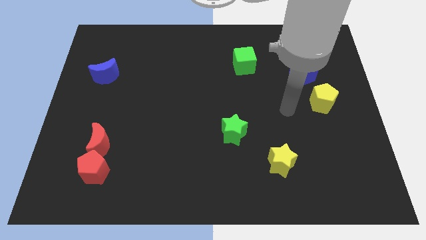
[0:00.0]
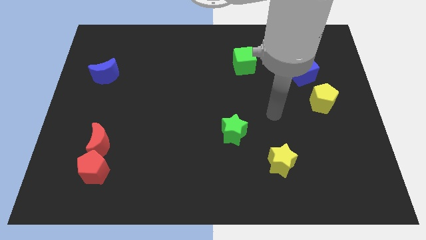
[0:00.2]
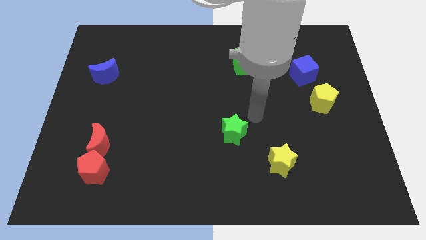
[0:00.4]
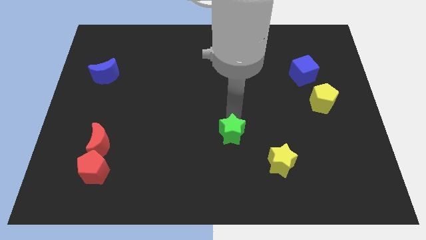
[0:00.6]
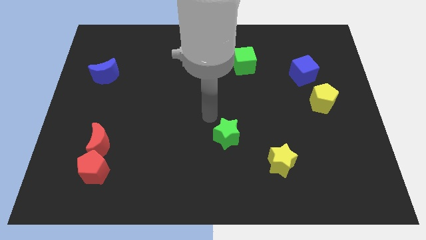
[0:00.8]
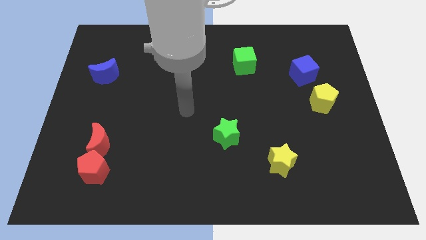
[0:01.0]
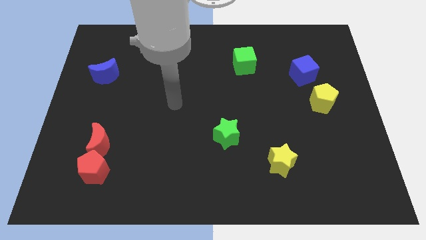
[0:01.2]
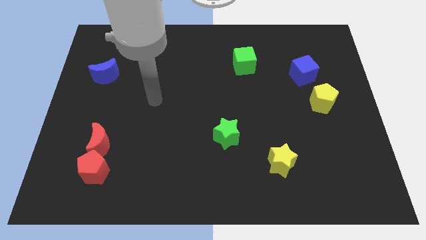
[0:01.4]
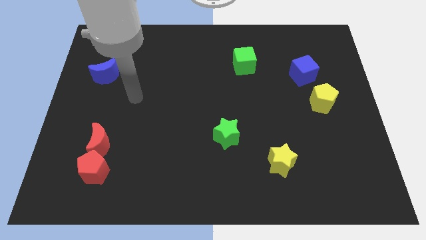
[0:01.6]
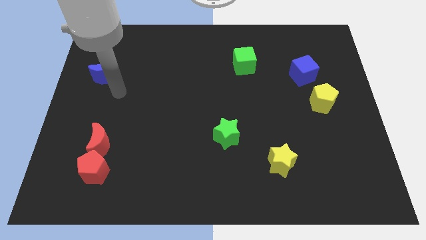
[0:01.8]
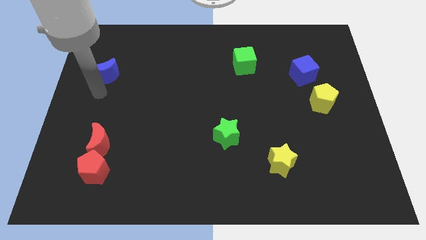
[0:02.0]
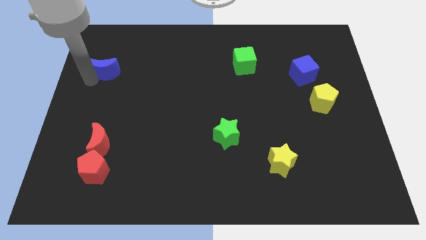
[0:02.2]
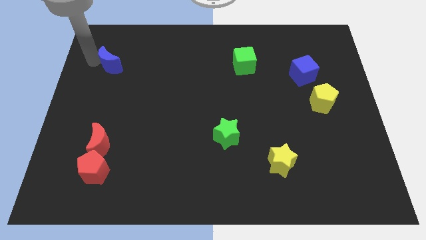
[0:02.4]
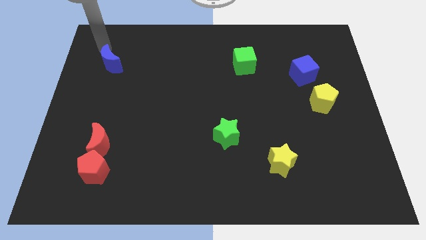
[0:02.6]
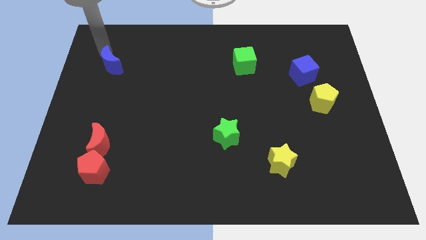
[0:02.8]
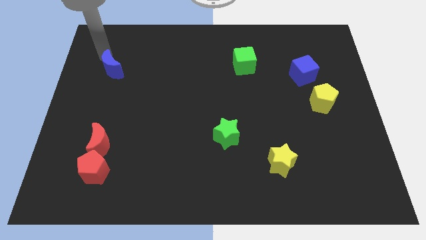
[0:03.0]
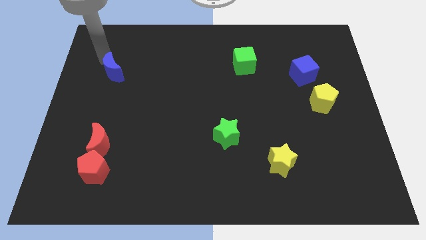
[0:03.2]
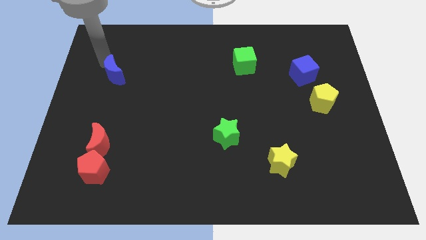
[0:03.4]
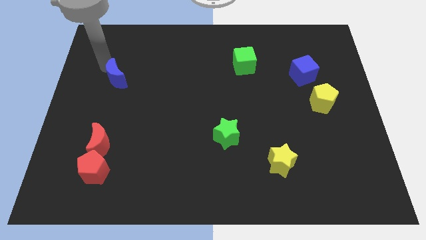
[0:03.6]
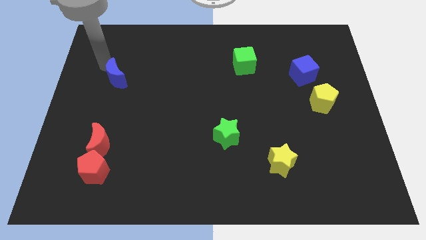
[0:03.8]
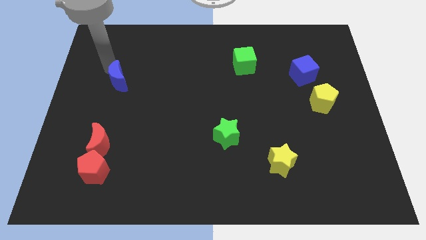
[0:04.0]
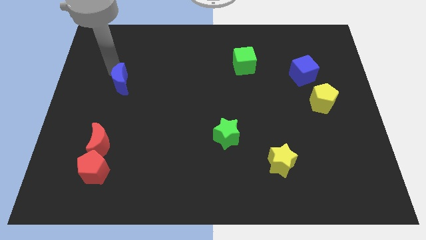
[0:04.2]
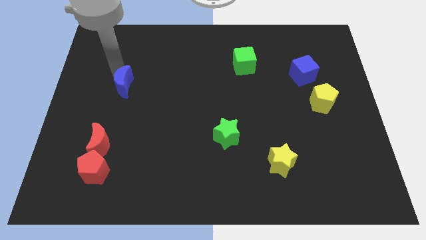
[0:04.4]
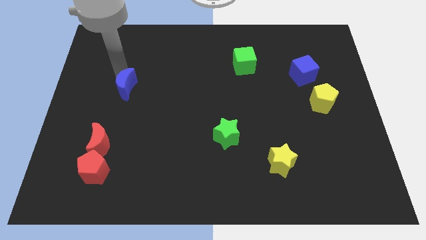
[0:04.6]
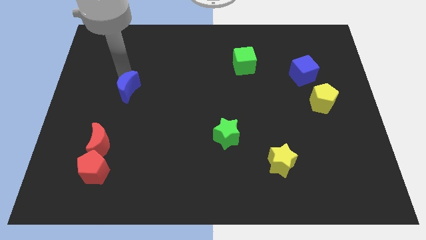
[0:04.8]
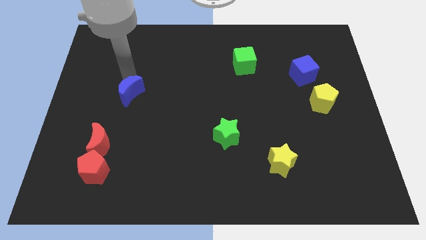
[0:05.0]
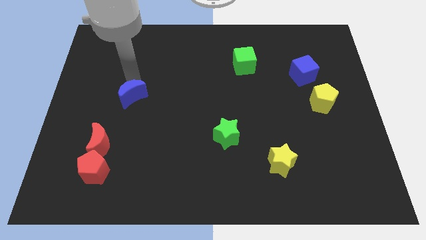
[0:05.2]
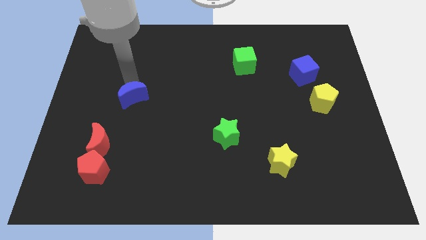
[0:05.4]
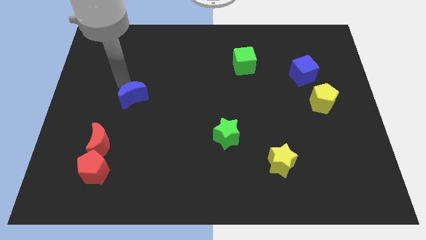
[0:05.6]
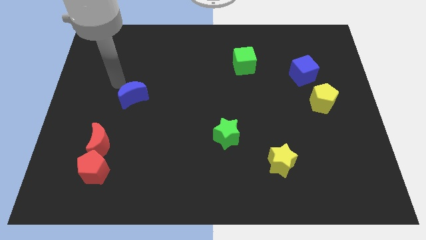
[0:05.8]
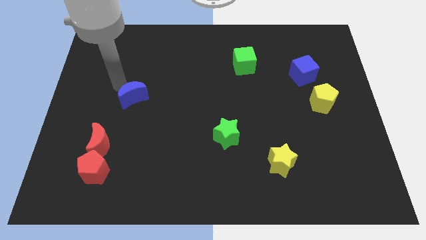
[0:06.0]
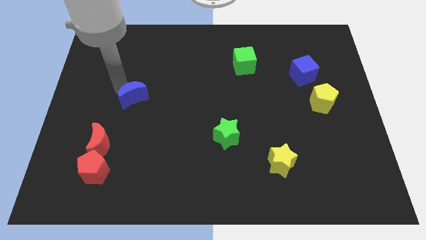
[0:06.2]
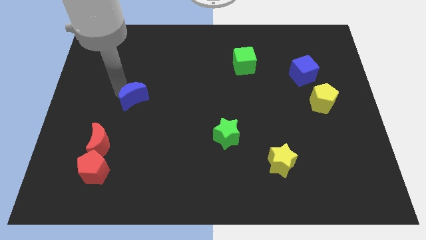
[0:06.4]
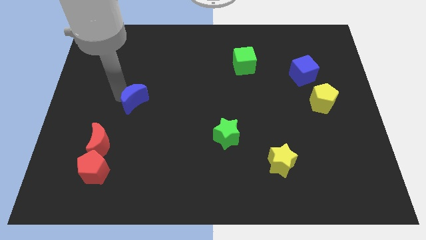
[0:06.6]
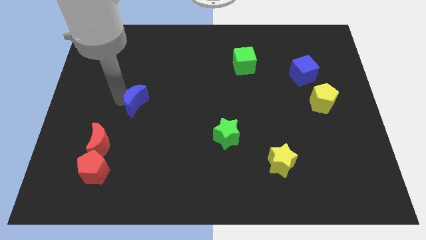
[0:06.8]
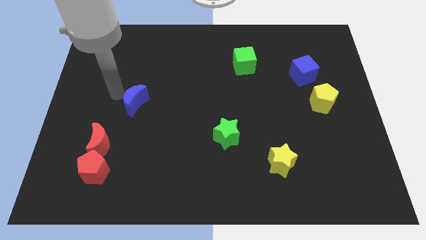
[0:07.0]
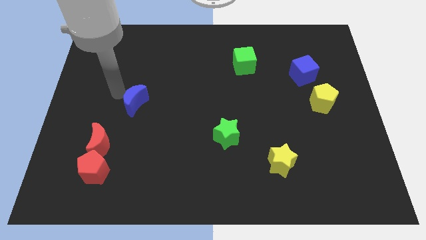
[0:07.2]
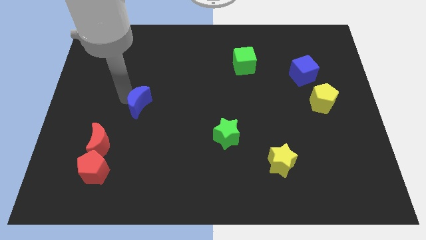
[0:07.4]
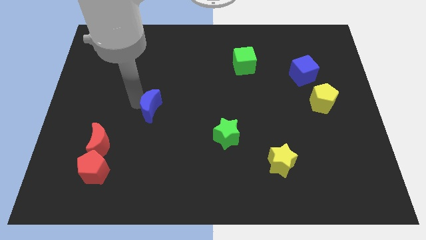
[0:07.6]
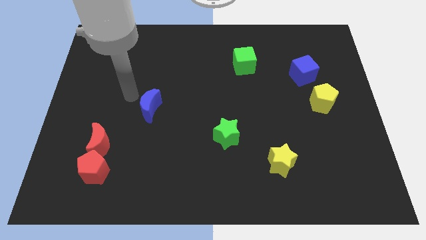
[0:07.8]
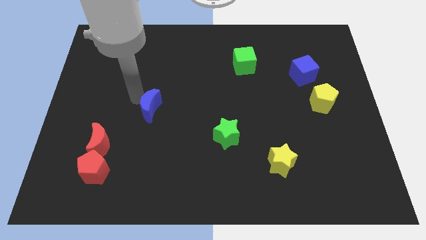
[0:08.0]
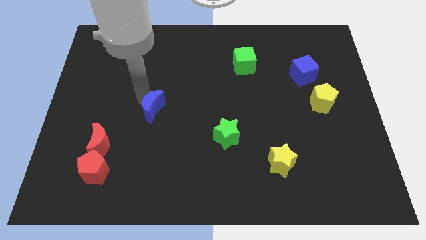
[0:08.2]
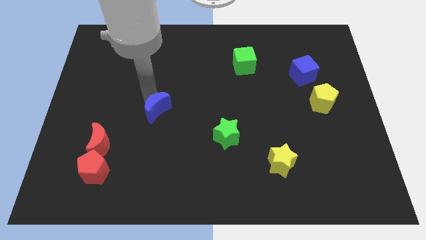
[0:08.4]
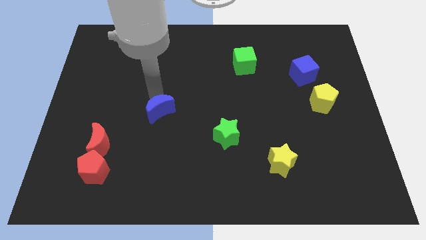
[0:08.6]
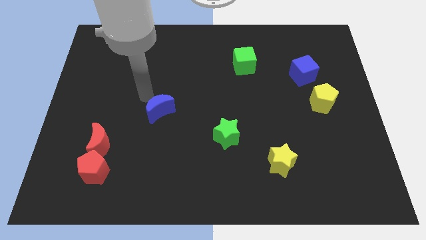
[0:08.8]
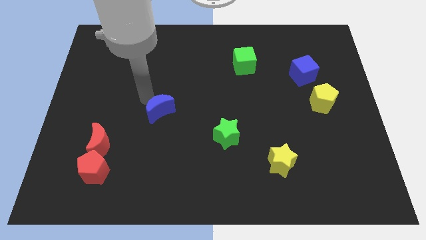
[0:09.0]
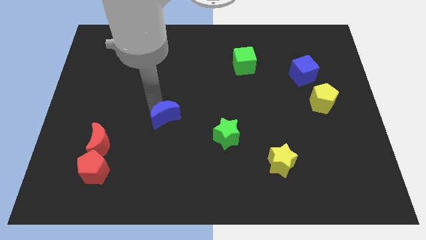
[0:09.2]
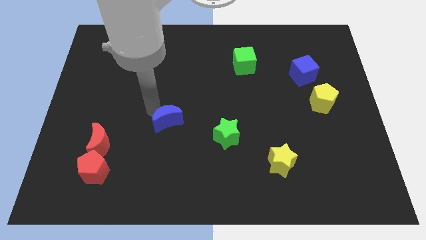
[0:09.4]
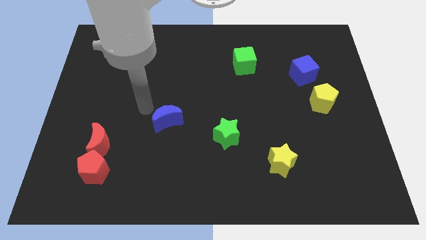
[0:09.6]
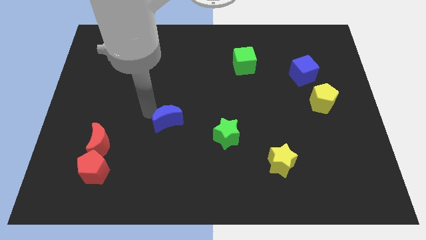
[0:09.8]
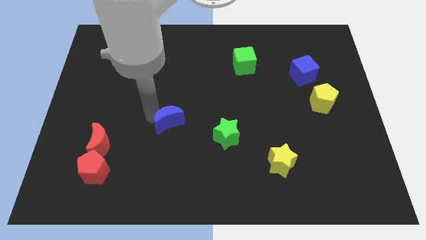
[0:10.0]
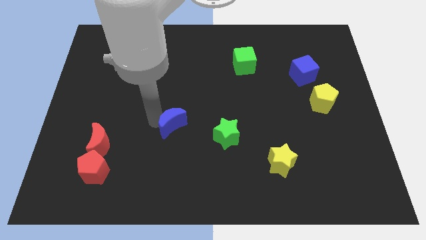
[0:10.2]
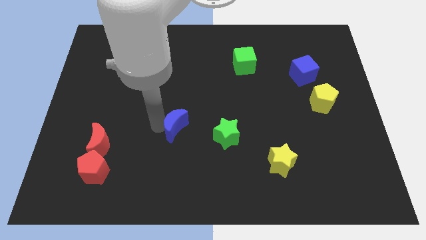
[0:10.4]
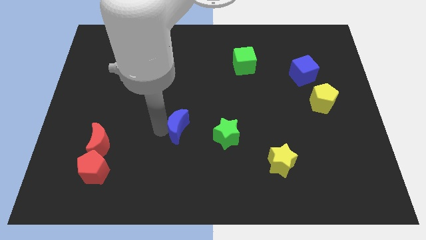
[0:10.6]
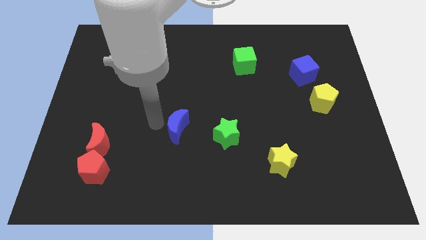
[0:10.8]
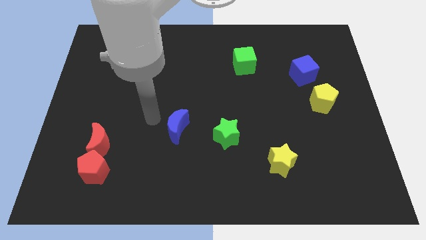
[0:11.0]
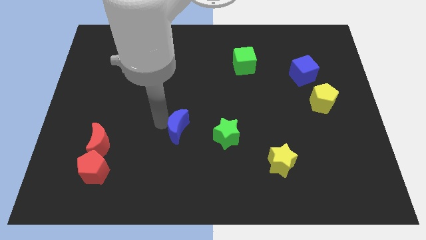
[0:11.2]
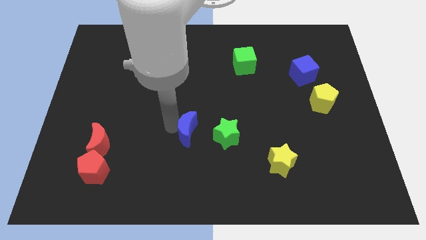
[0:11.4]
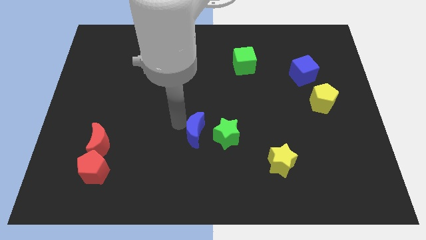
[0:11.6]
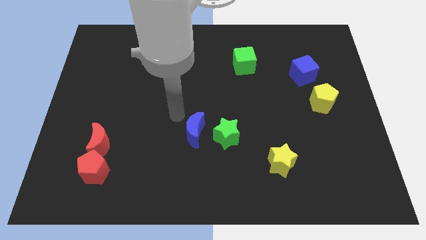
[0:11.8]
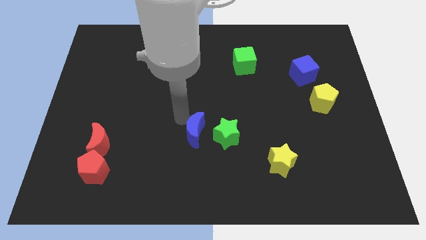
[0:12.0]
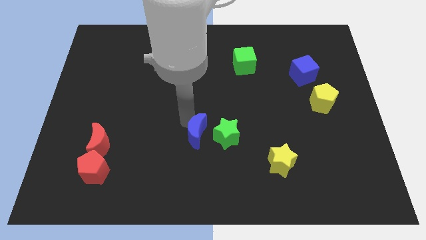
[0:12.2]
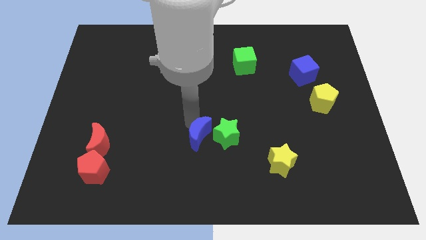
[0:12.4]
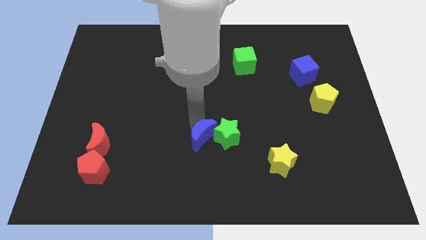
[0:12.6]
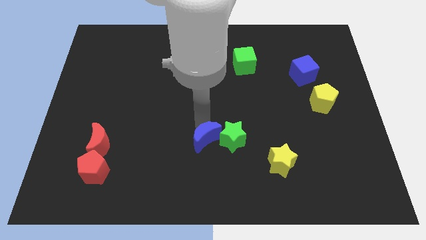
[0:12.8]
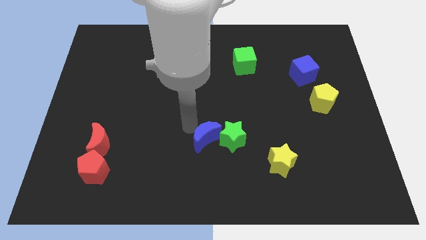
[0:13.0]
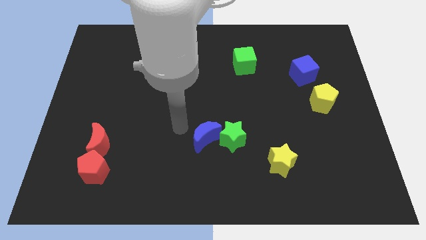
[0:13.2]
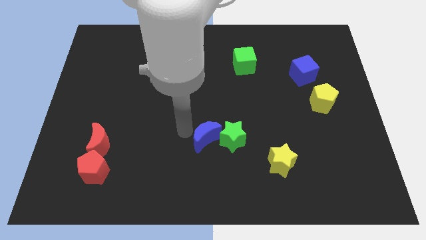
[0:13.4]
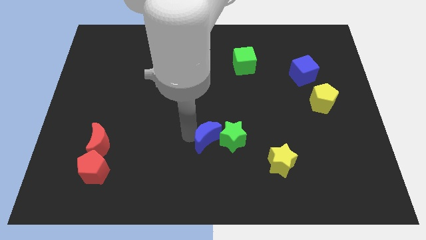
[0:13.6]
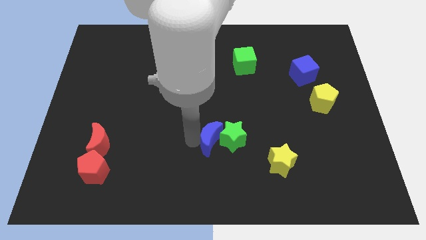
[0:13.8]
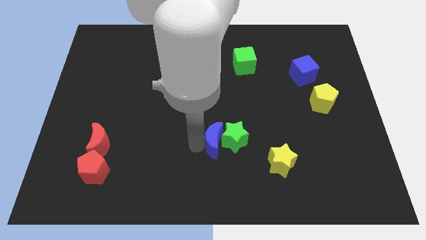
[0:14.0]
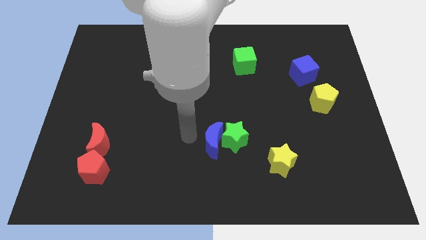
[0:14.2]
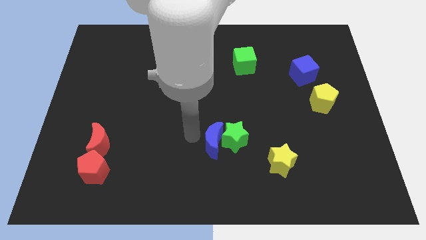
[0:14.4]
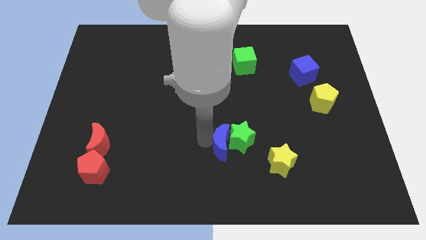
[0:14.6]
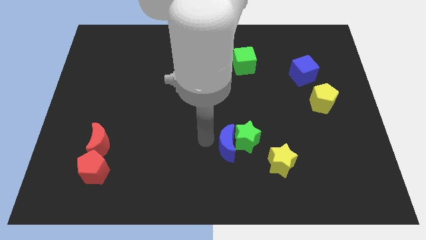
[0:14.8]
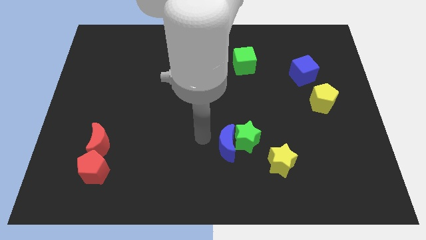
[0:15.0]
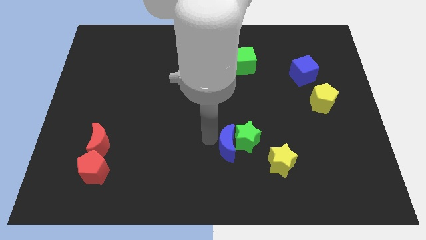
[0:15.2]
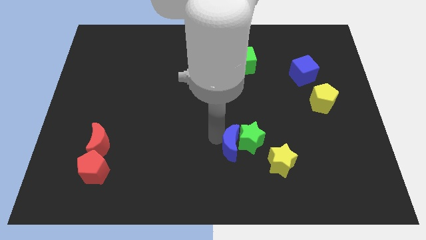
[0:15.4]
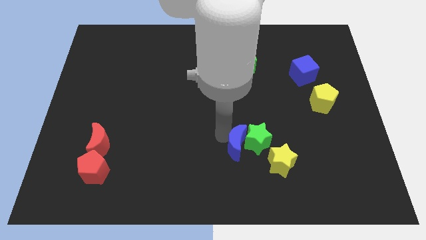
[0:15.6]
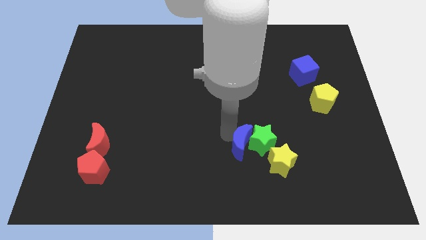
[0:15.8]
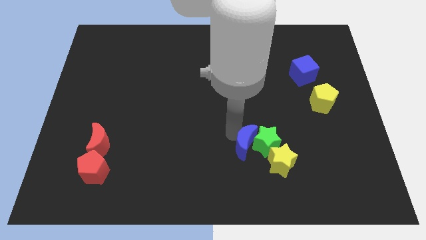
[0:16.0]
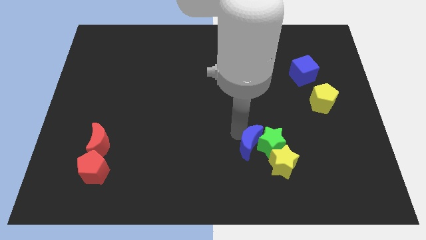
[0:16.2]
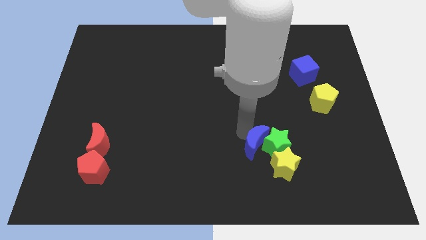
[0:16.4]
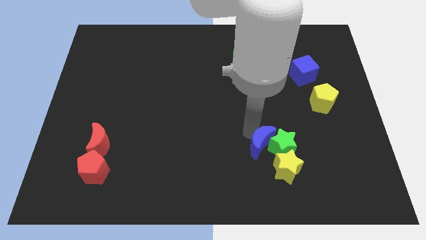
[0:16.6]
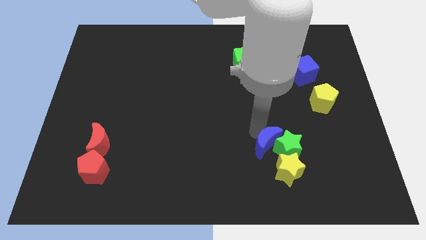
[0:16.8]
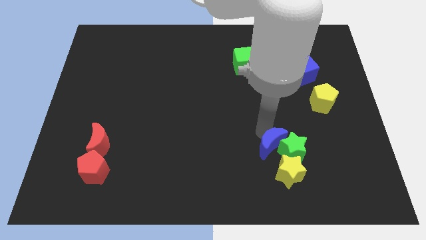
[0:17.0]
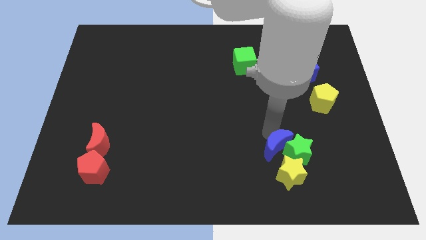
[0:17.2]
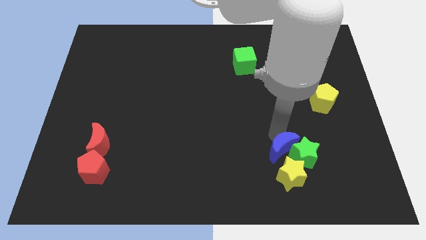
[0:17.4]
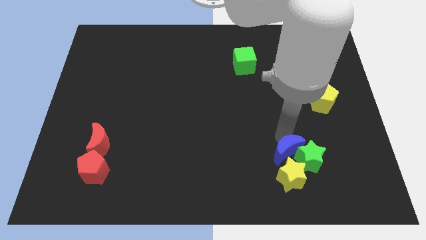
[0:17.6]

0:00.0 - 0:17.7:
slide the blue moon towards the yellow star
